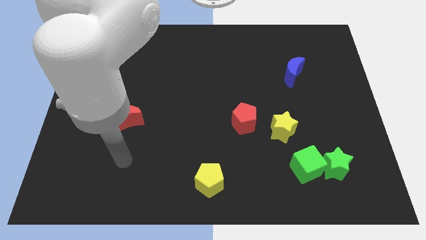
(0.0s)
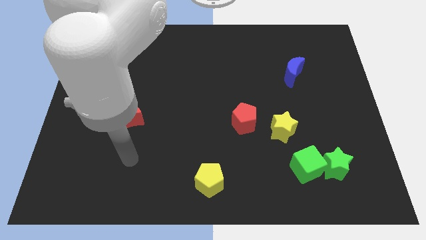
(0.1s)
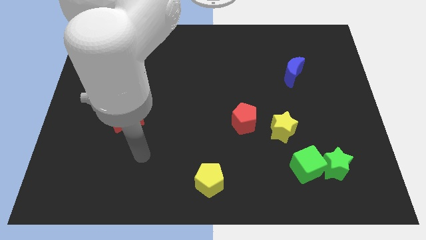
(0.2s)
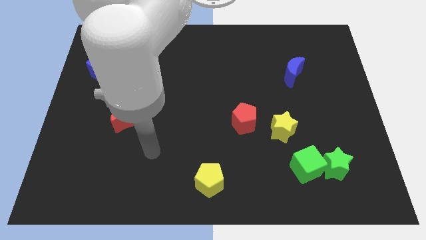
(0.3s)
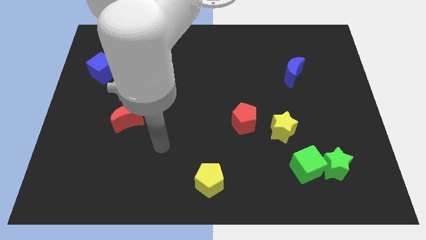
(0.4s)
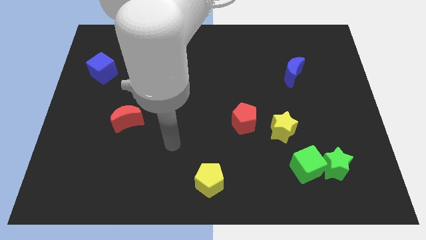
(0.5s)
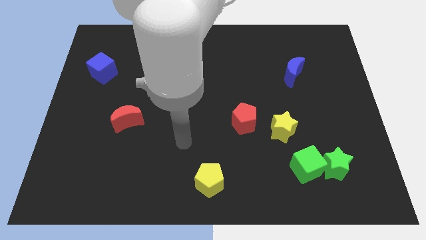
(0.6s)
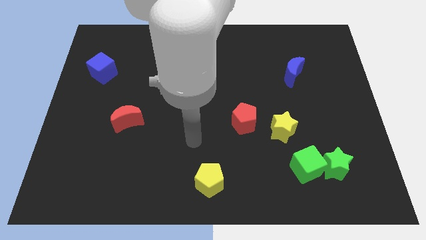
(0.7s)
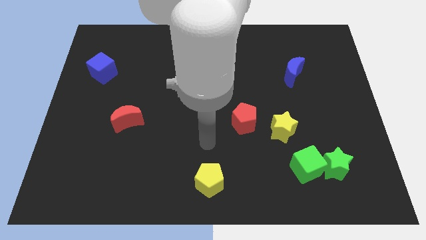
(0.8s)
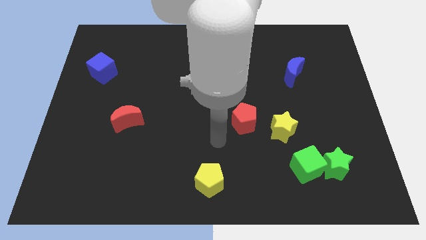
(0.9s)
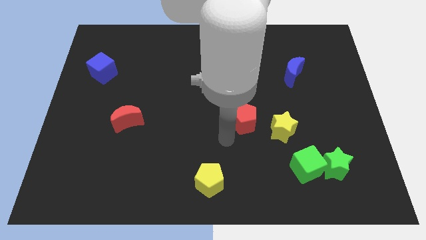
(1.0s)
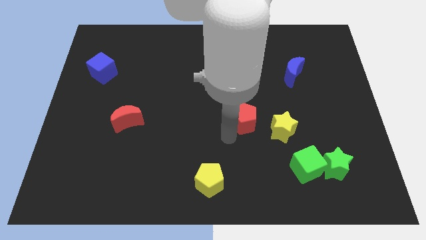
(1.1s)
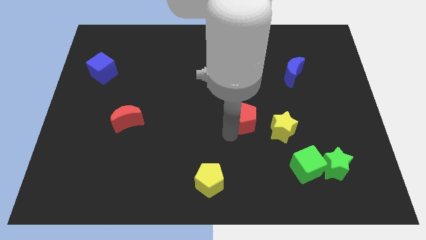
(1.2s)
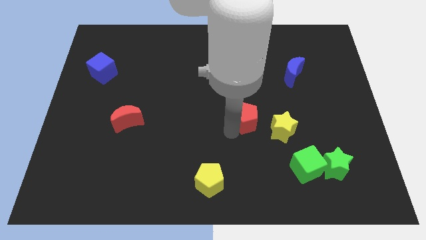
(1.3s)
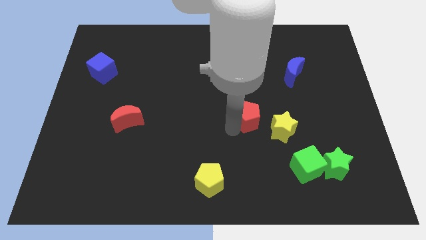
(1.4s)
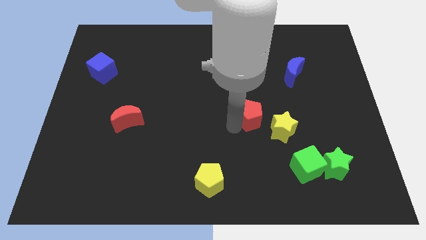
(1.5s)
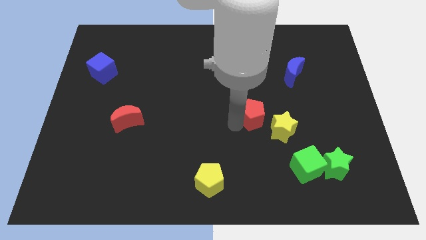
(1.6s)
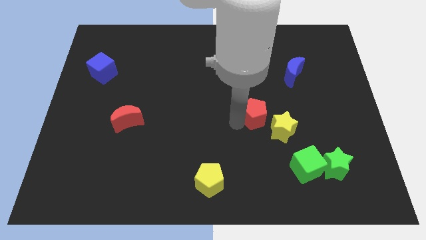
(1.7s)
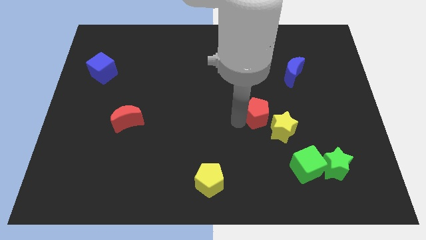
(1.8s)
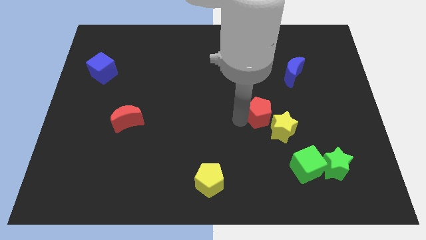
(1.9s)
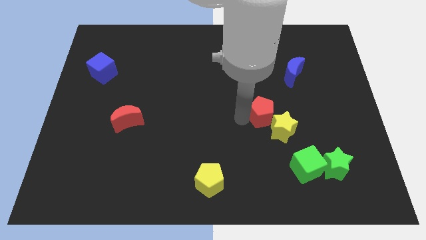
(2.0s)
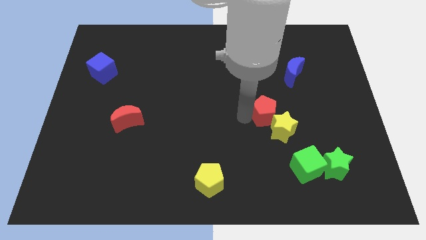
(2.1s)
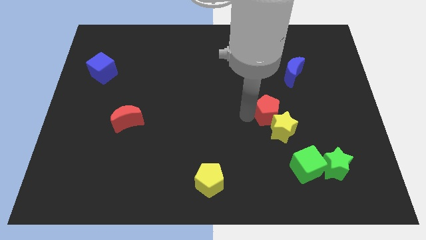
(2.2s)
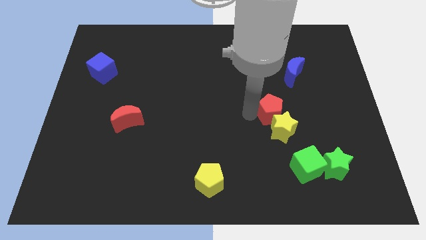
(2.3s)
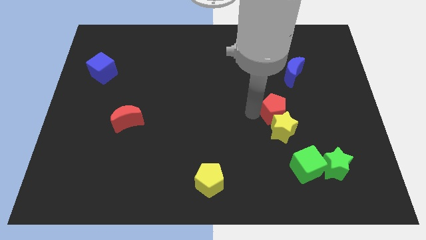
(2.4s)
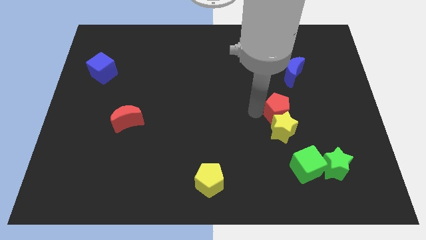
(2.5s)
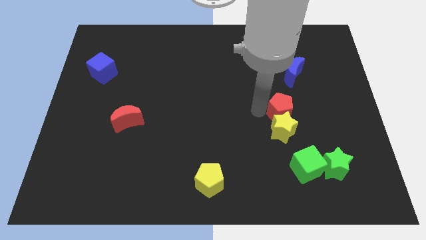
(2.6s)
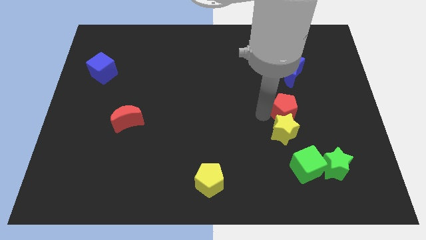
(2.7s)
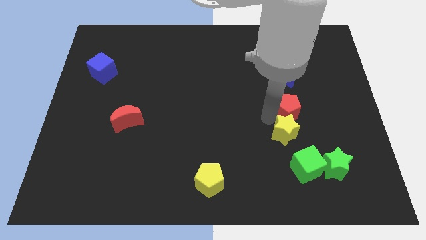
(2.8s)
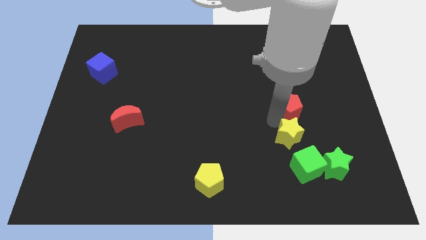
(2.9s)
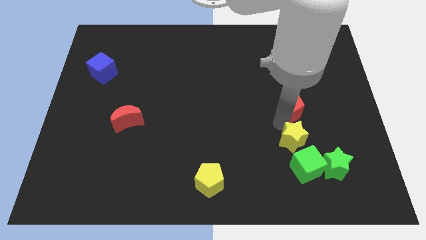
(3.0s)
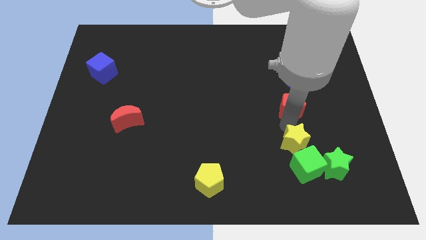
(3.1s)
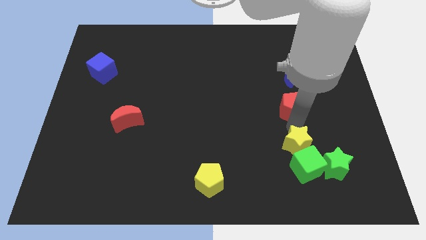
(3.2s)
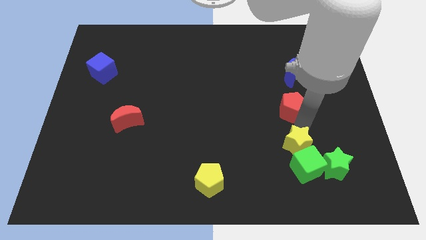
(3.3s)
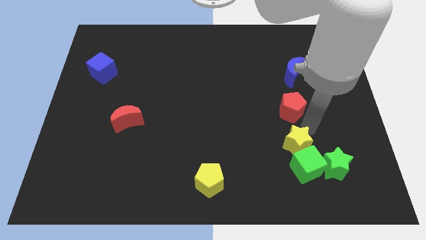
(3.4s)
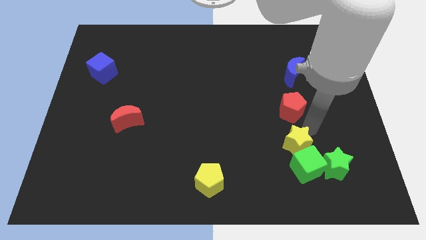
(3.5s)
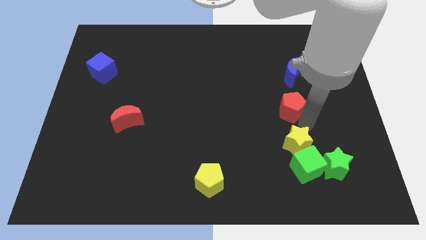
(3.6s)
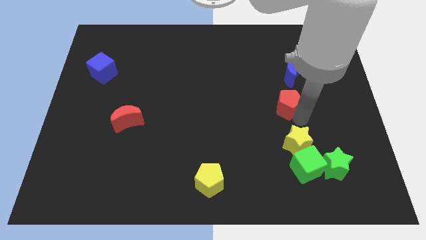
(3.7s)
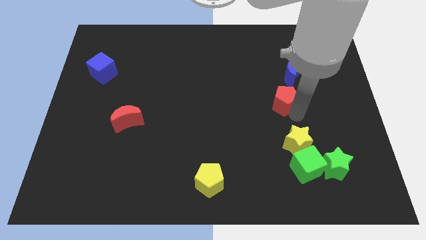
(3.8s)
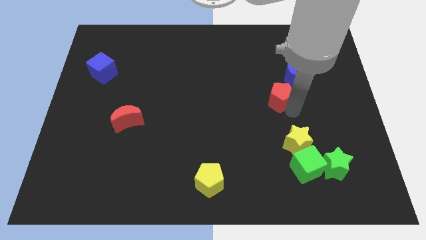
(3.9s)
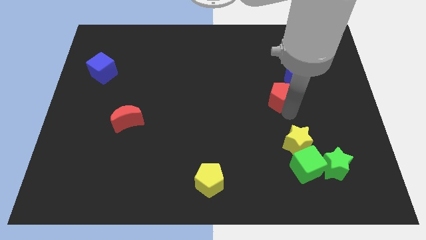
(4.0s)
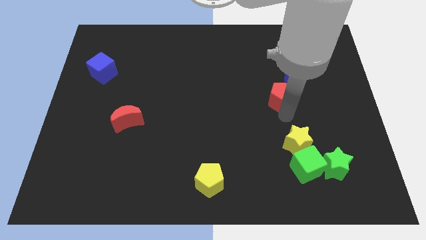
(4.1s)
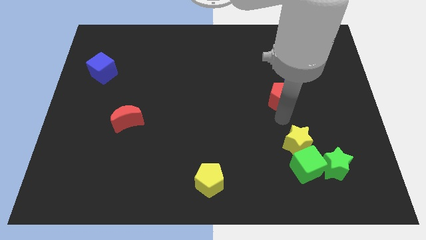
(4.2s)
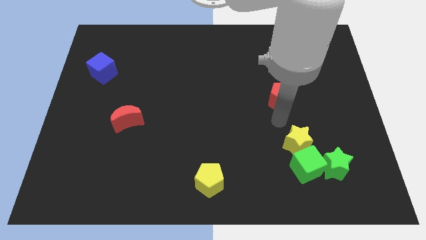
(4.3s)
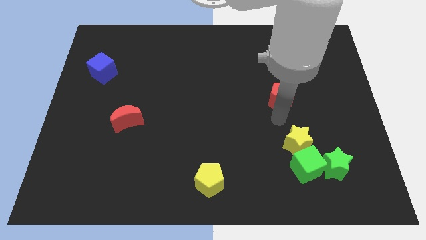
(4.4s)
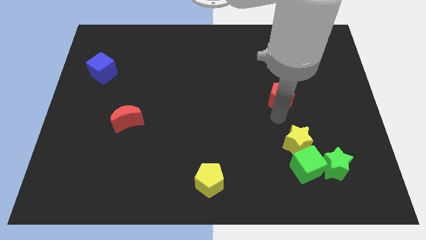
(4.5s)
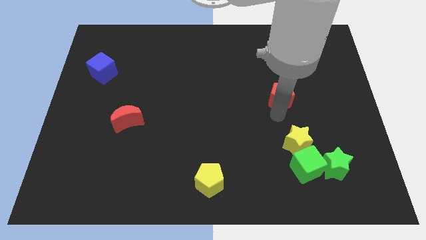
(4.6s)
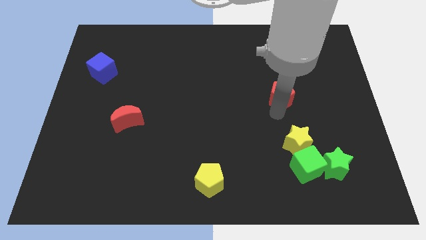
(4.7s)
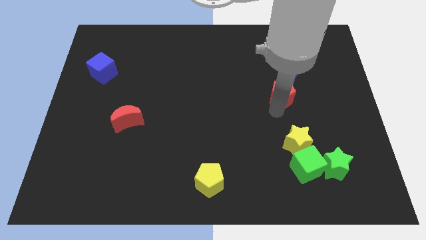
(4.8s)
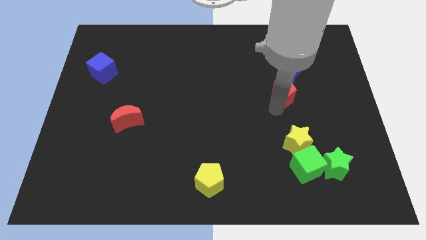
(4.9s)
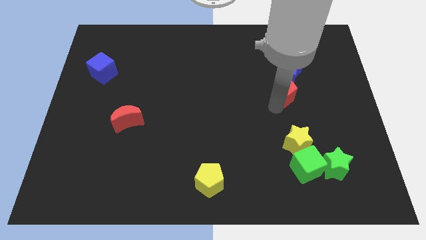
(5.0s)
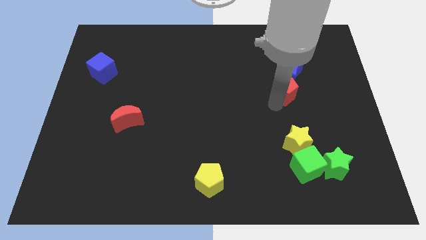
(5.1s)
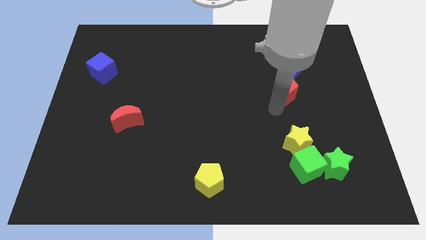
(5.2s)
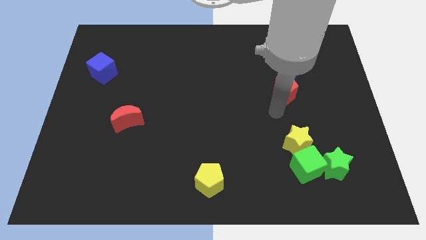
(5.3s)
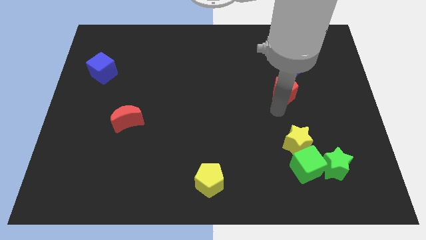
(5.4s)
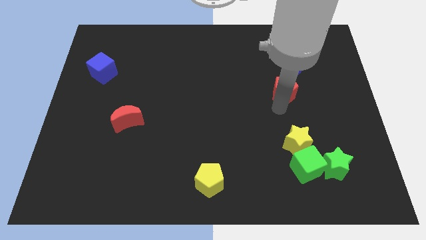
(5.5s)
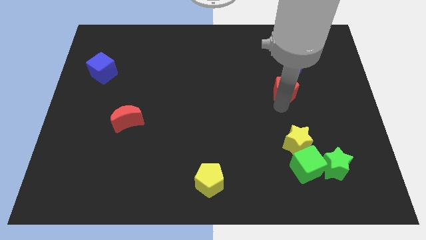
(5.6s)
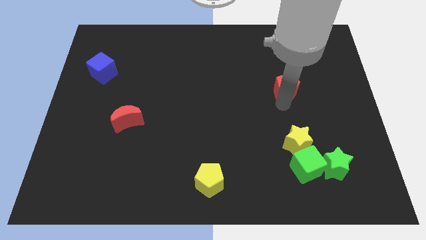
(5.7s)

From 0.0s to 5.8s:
put the red pentagon to the blue moon

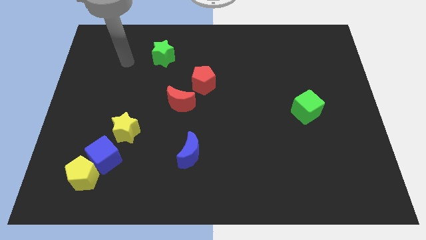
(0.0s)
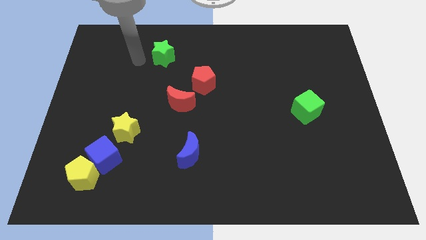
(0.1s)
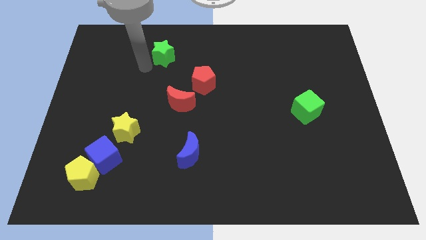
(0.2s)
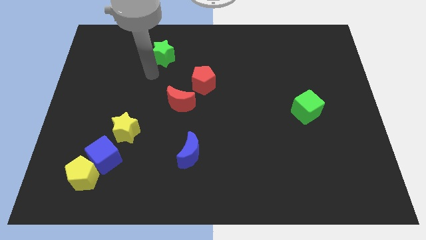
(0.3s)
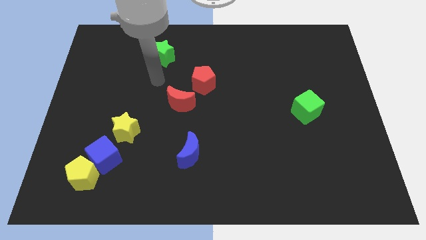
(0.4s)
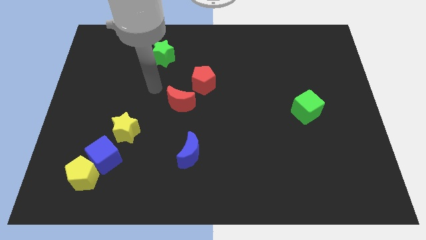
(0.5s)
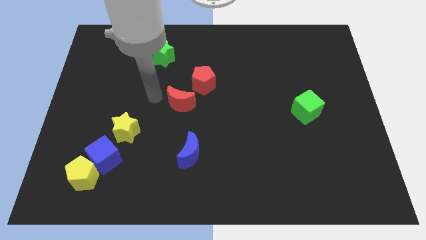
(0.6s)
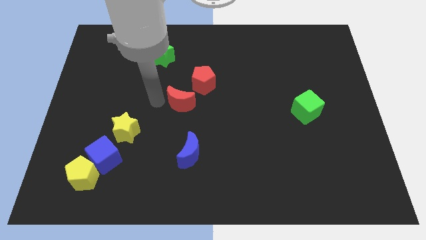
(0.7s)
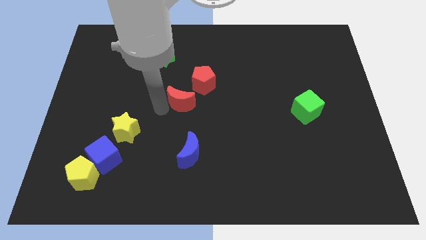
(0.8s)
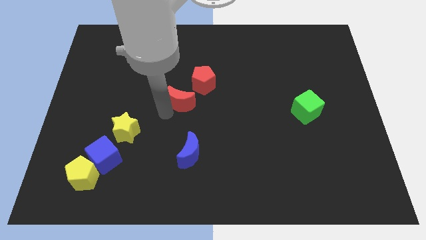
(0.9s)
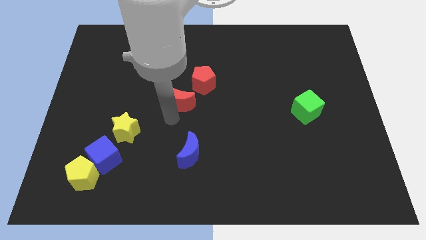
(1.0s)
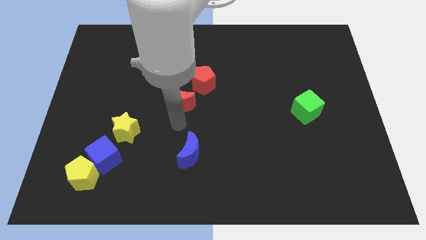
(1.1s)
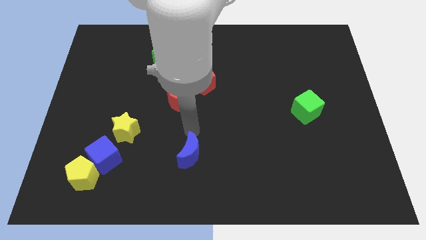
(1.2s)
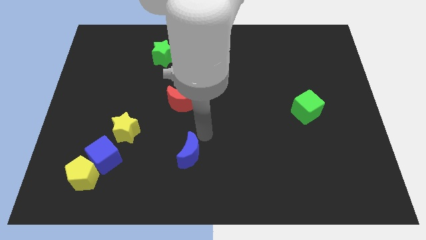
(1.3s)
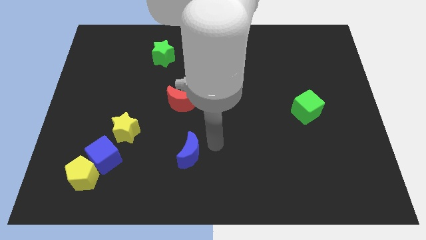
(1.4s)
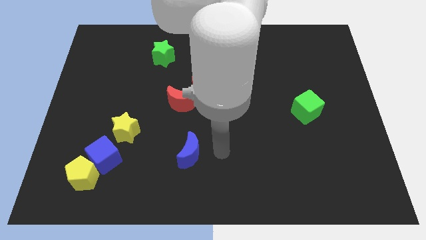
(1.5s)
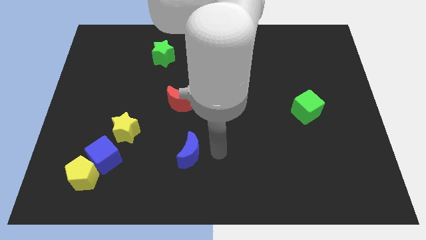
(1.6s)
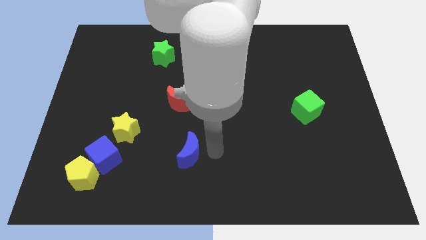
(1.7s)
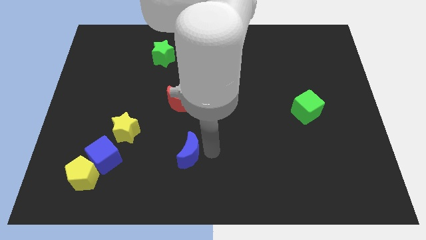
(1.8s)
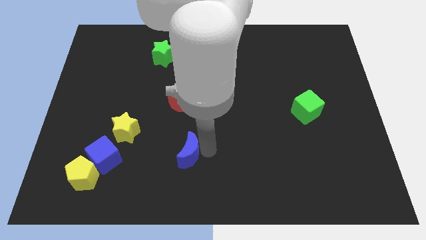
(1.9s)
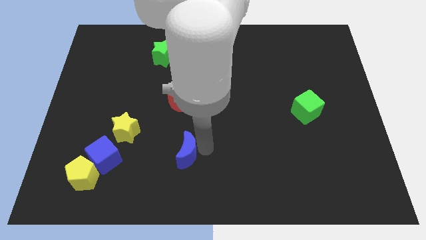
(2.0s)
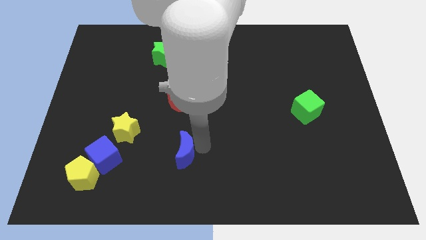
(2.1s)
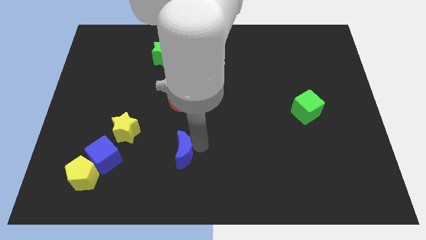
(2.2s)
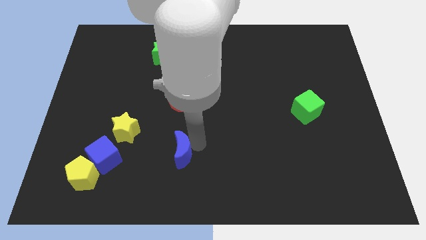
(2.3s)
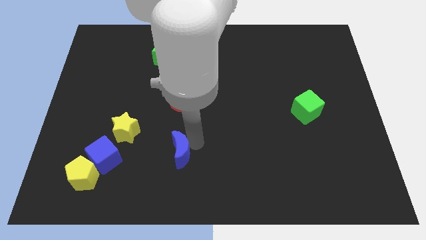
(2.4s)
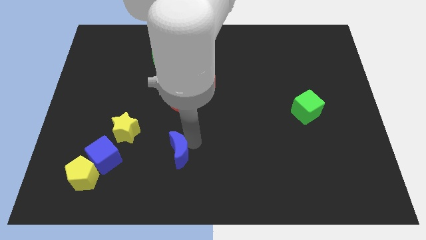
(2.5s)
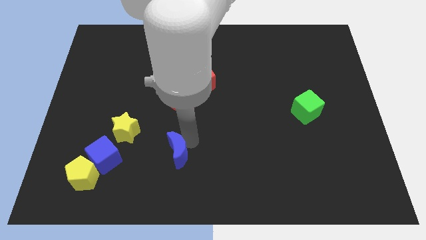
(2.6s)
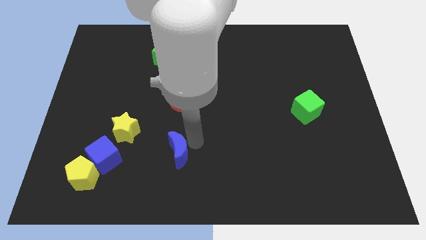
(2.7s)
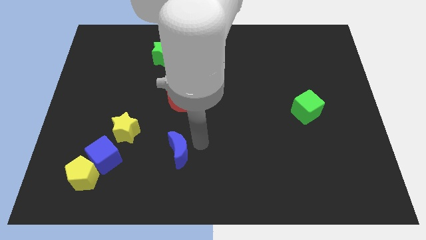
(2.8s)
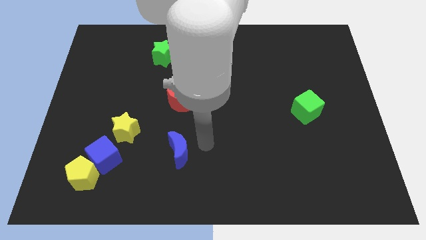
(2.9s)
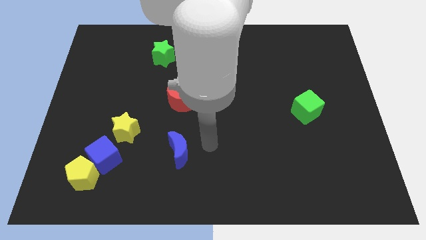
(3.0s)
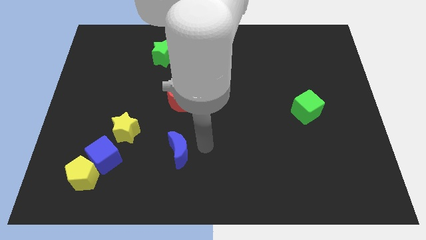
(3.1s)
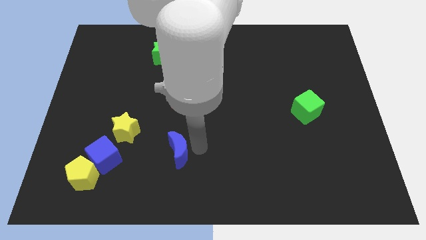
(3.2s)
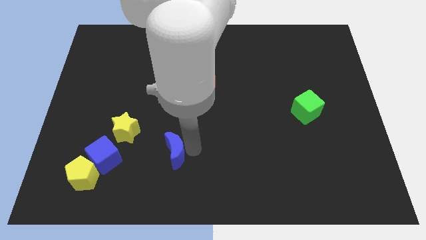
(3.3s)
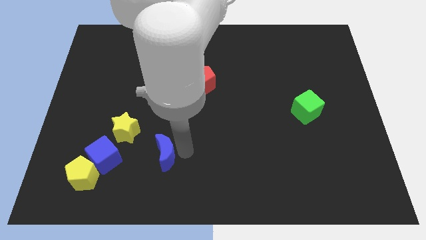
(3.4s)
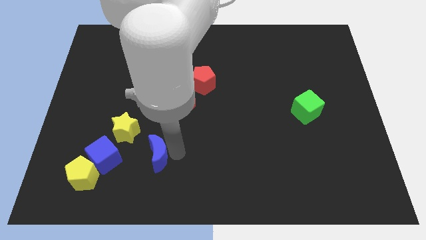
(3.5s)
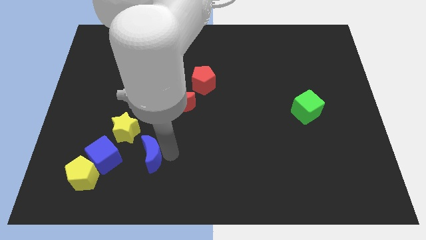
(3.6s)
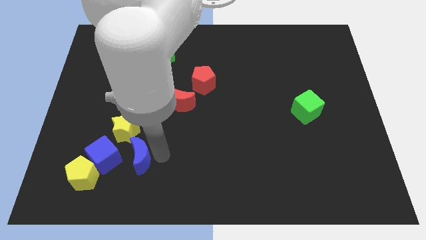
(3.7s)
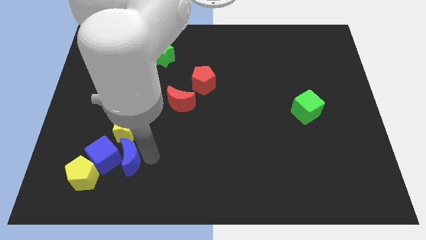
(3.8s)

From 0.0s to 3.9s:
slide the blue moon to the blue cube
